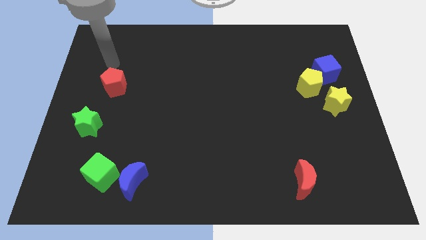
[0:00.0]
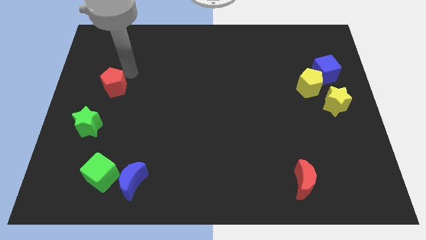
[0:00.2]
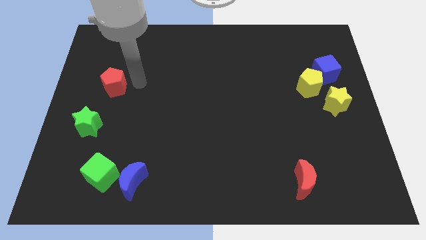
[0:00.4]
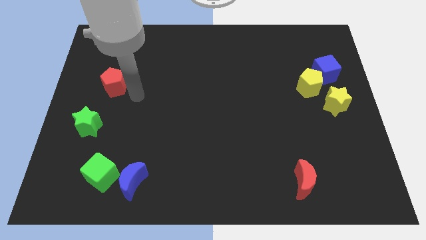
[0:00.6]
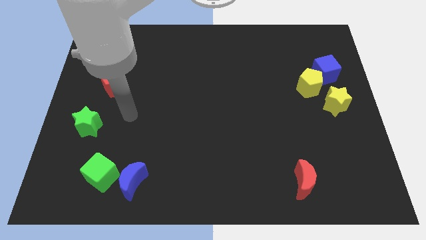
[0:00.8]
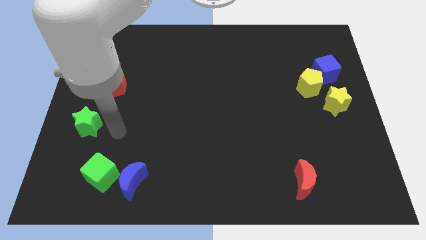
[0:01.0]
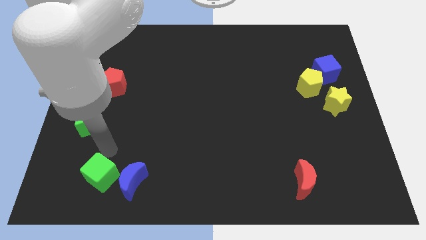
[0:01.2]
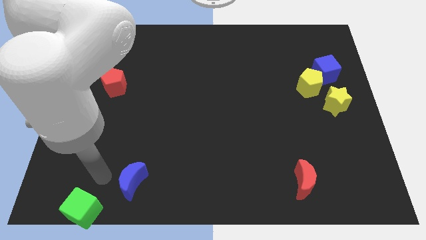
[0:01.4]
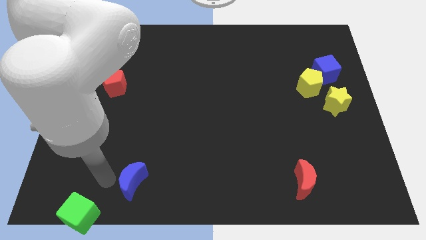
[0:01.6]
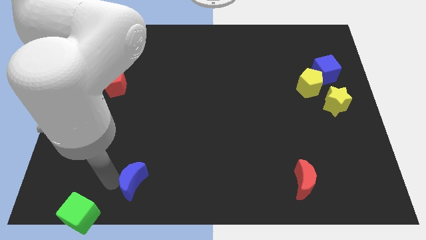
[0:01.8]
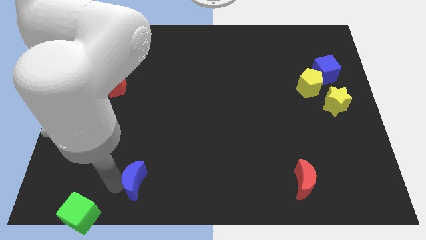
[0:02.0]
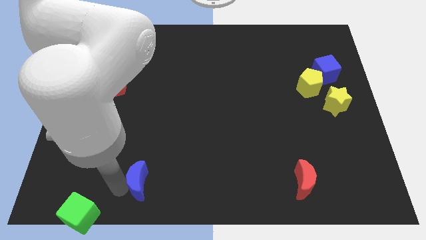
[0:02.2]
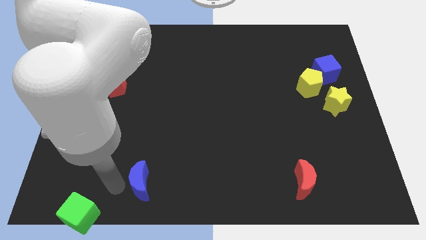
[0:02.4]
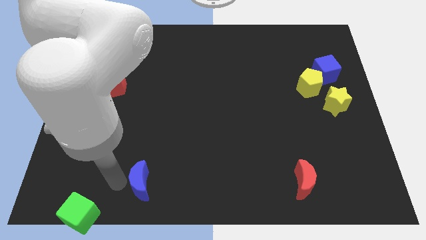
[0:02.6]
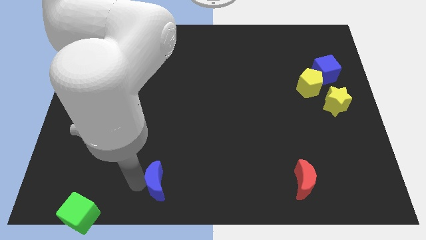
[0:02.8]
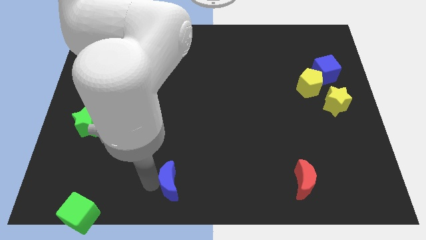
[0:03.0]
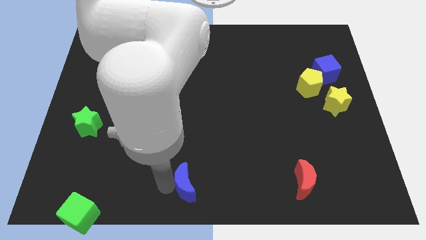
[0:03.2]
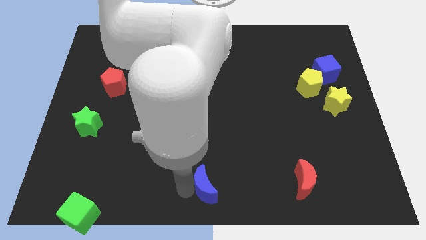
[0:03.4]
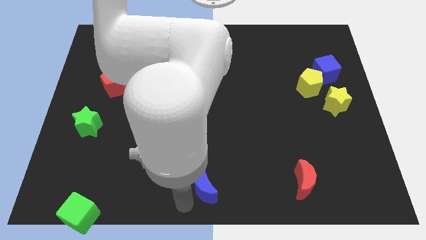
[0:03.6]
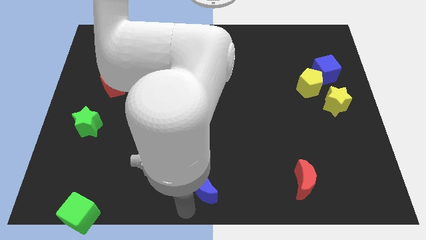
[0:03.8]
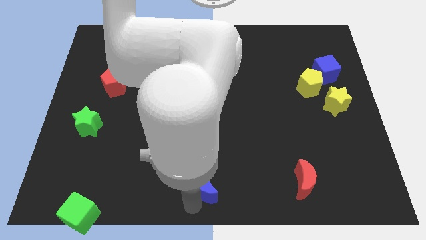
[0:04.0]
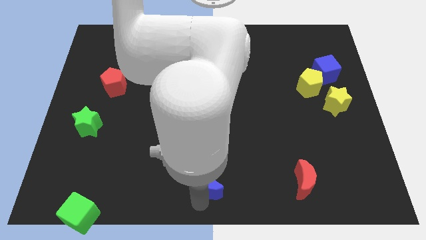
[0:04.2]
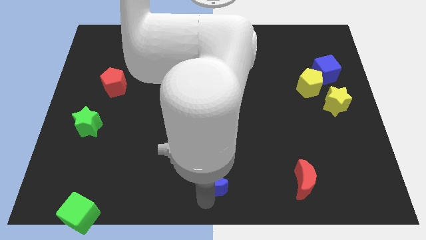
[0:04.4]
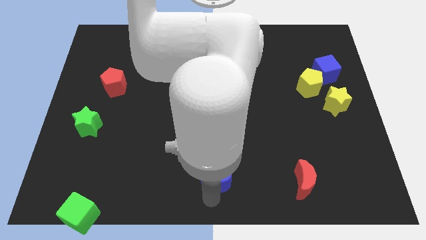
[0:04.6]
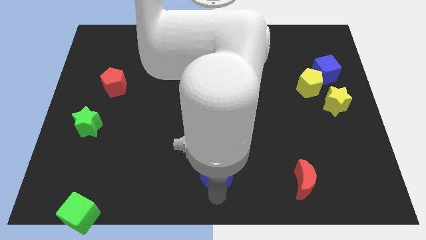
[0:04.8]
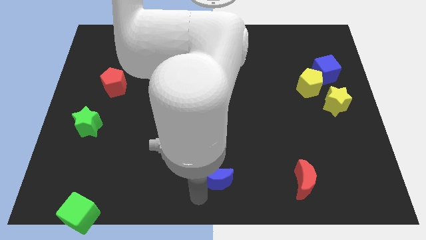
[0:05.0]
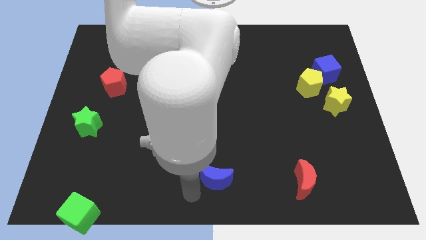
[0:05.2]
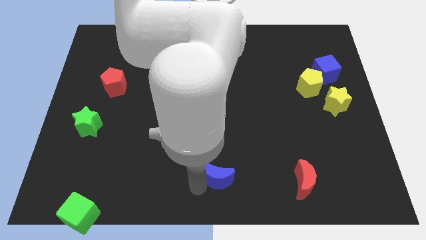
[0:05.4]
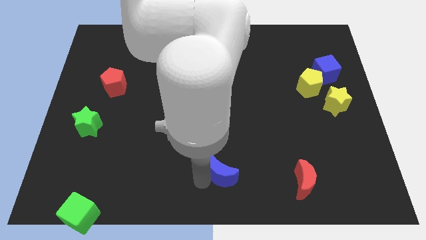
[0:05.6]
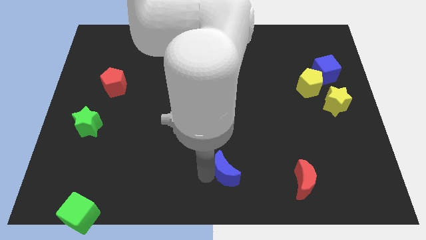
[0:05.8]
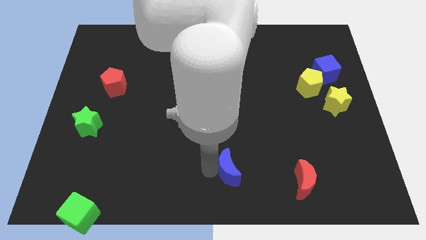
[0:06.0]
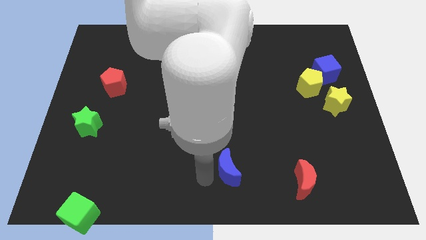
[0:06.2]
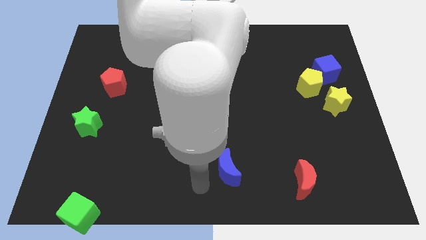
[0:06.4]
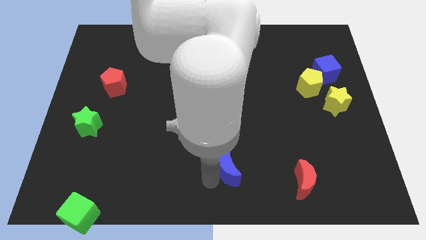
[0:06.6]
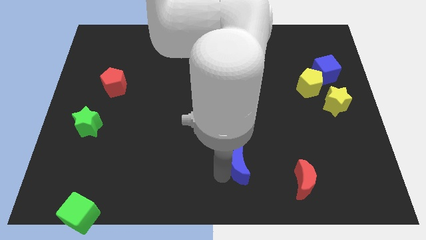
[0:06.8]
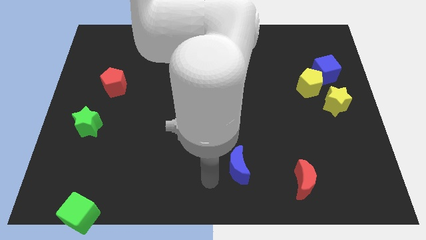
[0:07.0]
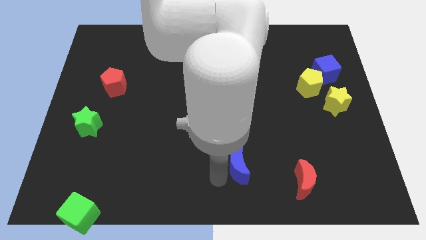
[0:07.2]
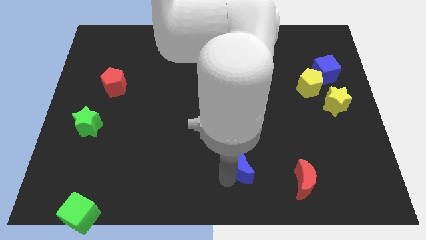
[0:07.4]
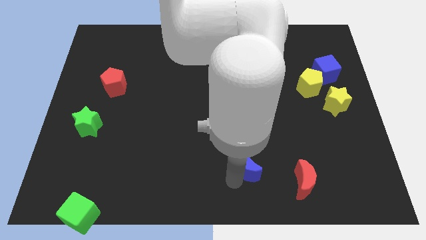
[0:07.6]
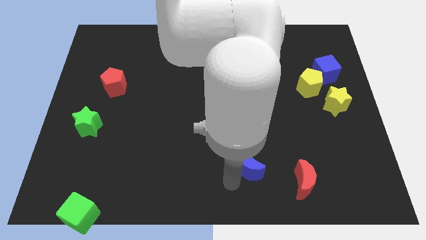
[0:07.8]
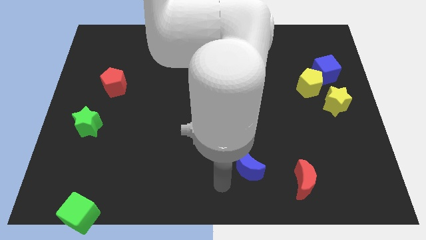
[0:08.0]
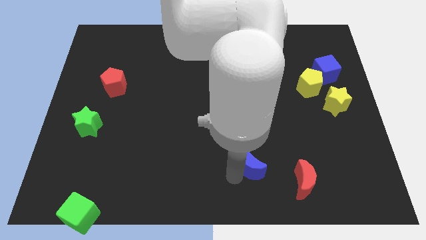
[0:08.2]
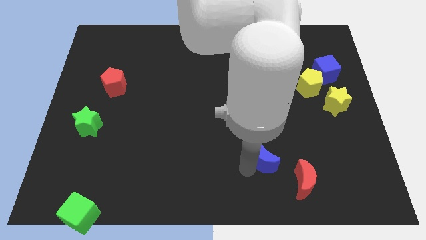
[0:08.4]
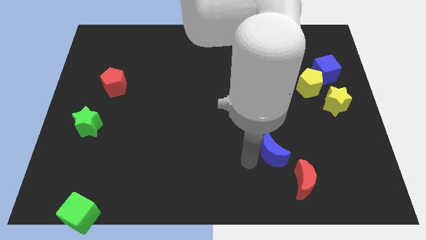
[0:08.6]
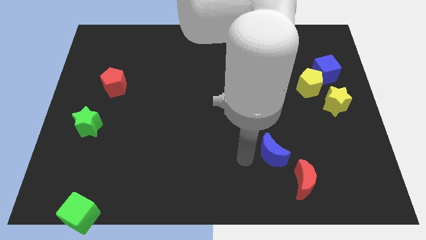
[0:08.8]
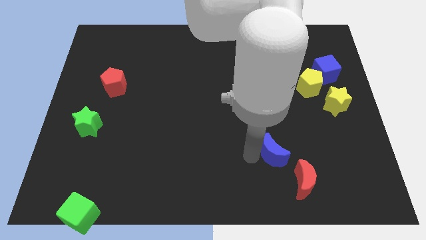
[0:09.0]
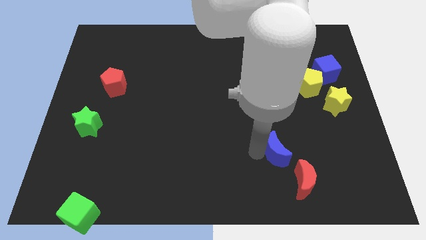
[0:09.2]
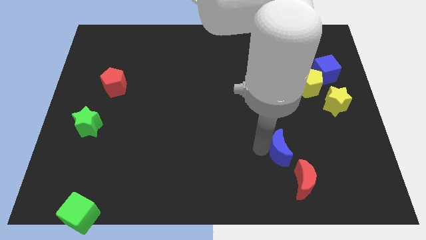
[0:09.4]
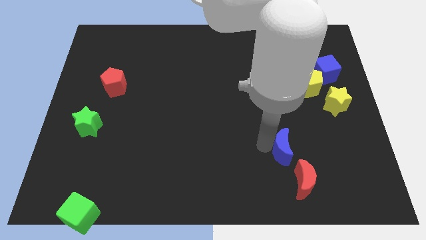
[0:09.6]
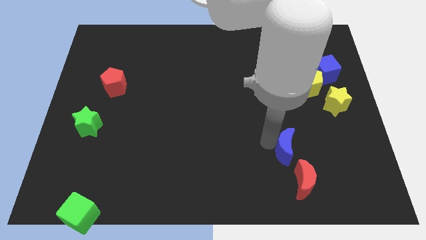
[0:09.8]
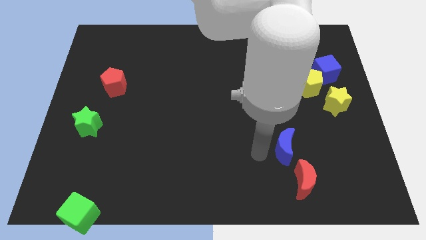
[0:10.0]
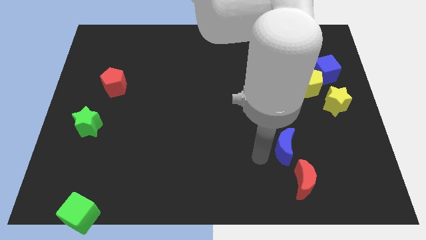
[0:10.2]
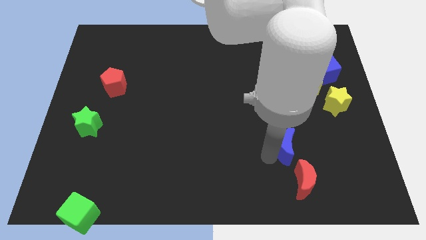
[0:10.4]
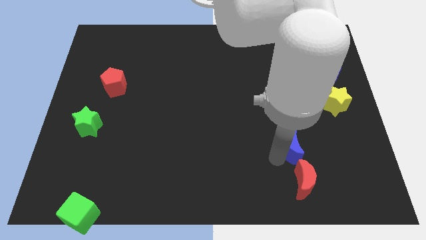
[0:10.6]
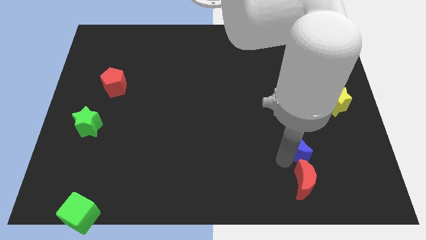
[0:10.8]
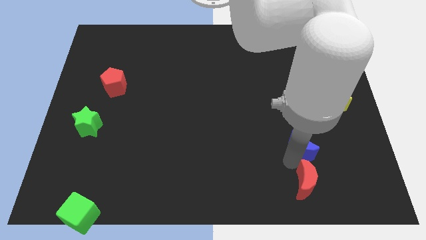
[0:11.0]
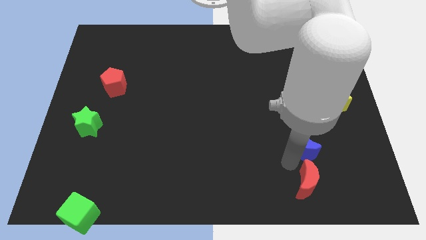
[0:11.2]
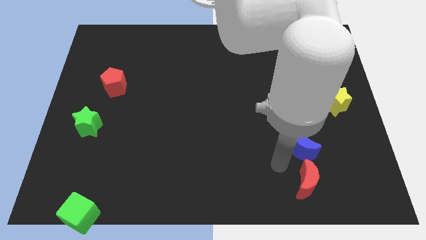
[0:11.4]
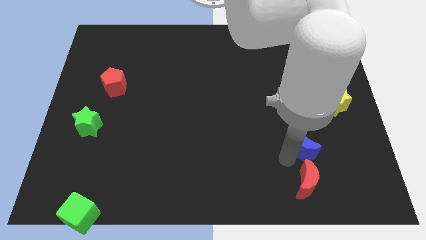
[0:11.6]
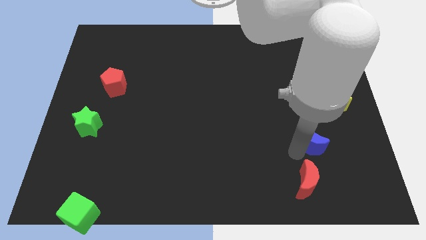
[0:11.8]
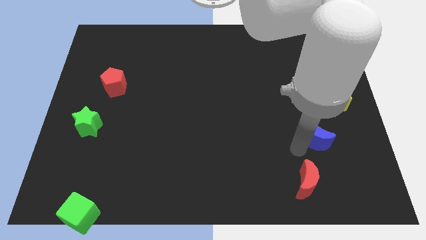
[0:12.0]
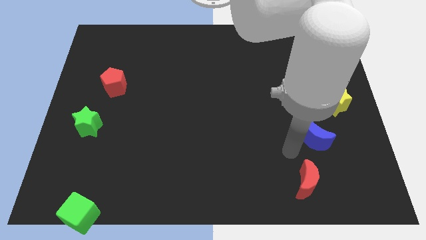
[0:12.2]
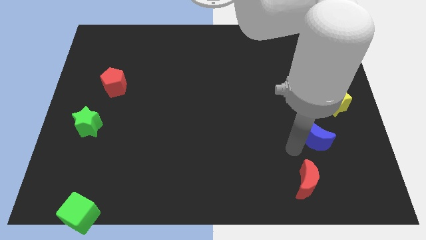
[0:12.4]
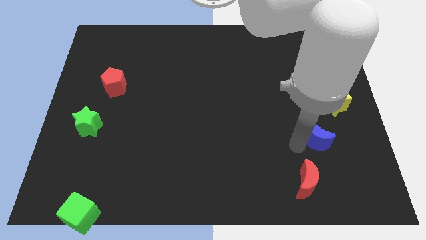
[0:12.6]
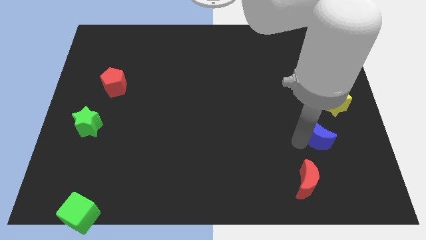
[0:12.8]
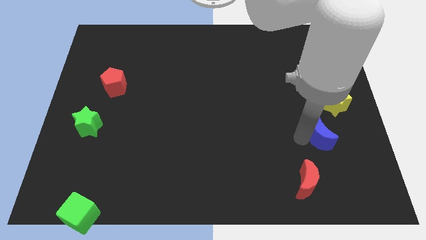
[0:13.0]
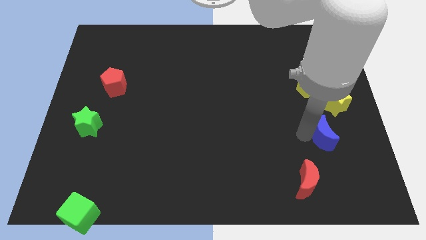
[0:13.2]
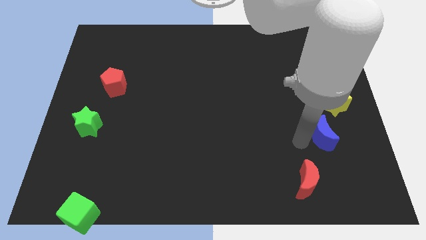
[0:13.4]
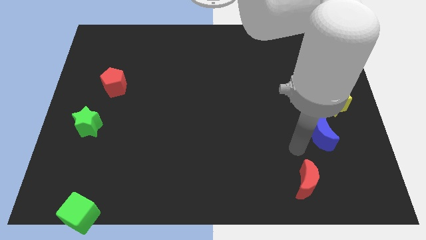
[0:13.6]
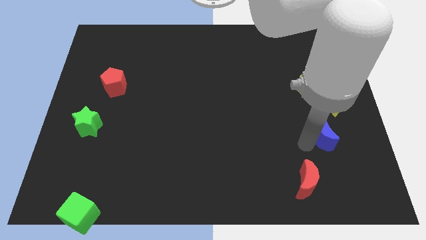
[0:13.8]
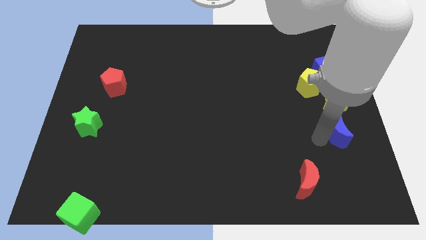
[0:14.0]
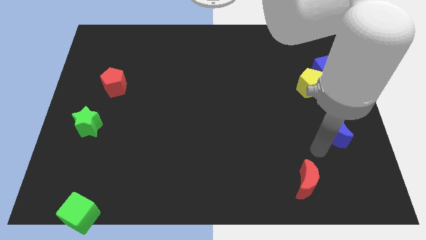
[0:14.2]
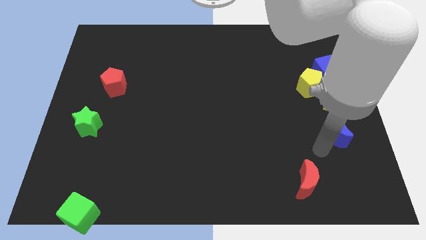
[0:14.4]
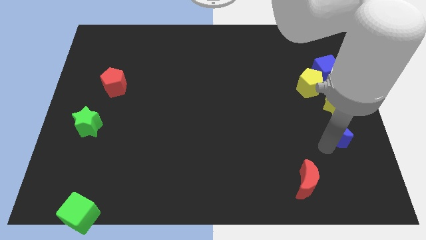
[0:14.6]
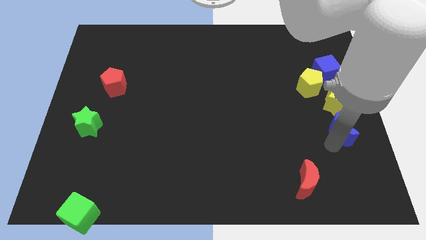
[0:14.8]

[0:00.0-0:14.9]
slide the blue moon to the right side of the board
